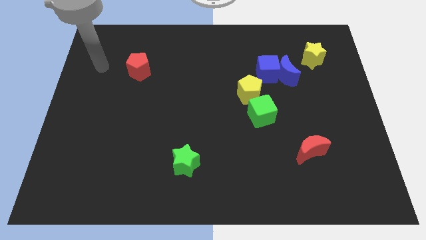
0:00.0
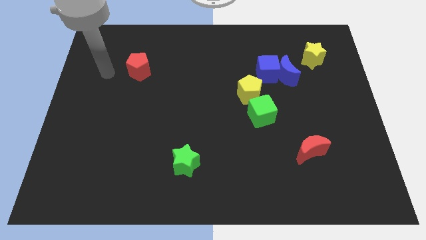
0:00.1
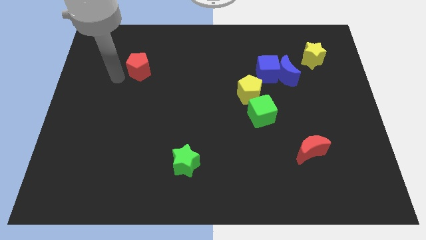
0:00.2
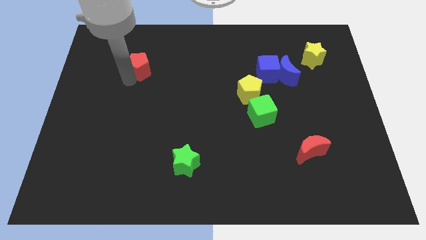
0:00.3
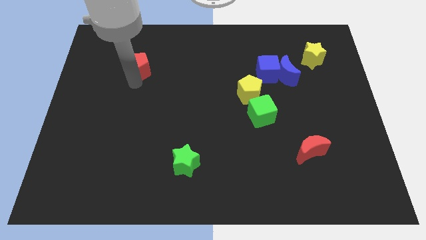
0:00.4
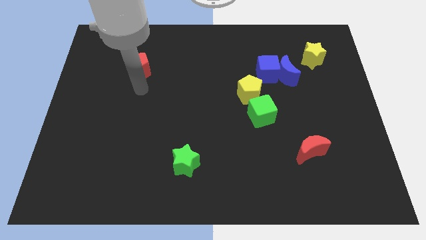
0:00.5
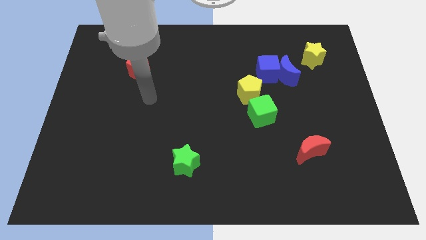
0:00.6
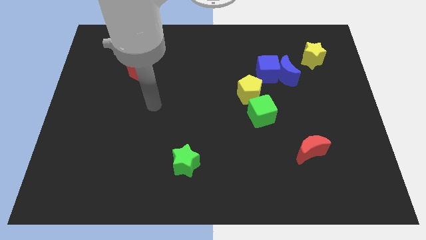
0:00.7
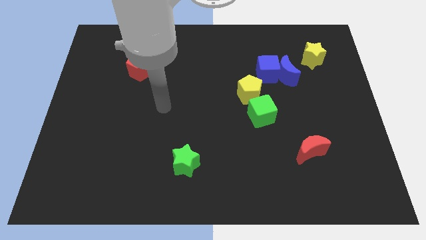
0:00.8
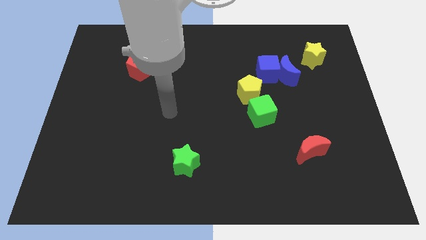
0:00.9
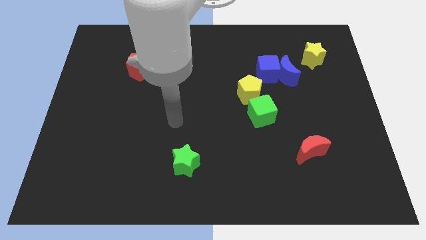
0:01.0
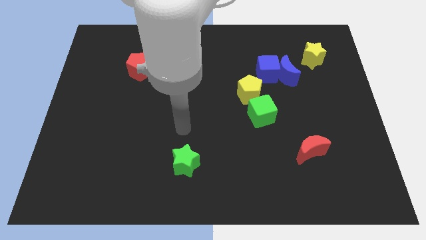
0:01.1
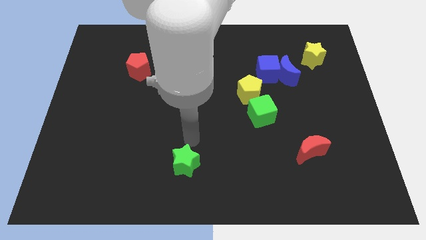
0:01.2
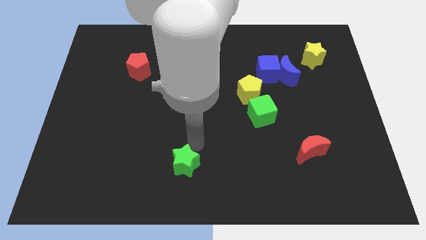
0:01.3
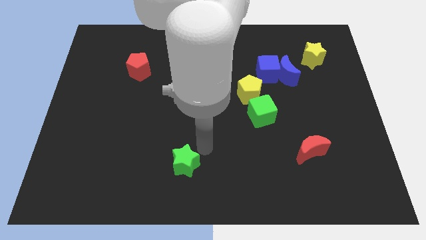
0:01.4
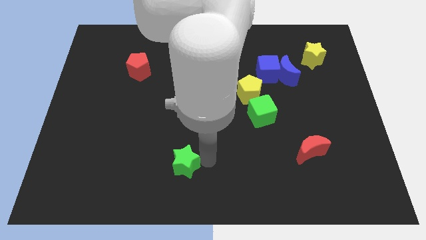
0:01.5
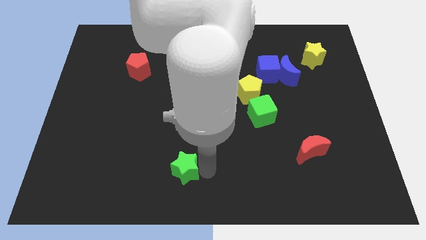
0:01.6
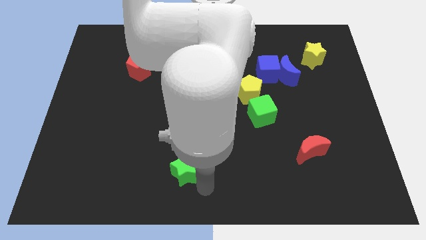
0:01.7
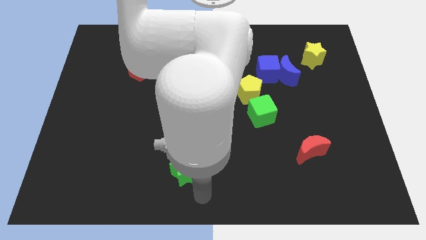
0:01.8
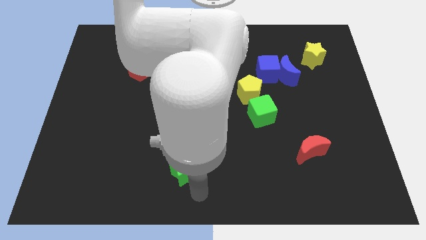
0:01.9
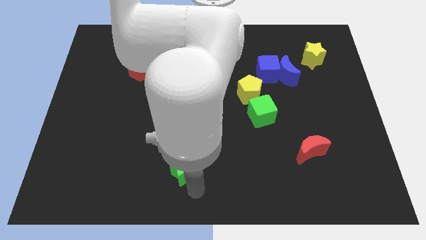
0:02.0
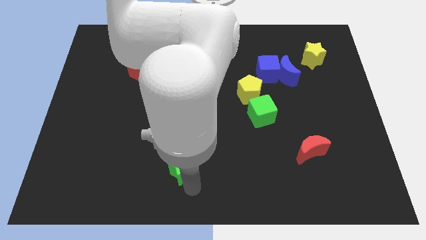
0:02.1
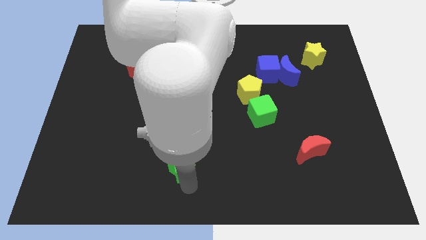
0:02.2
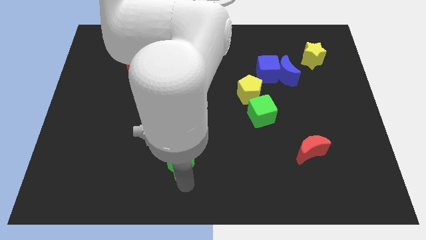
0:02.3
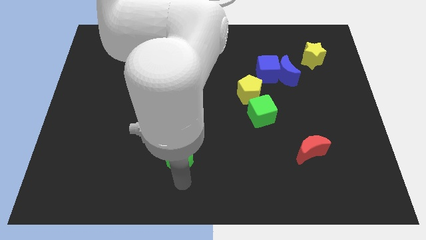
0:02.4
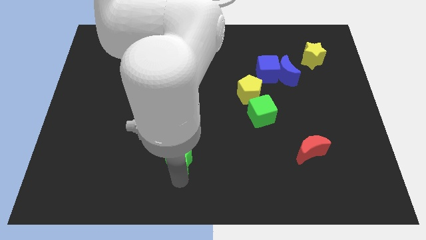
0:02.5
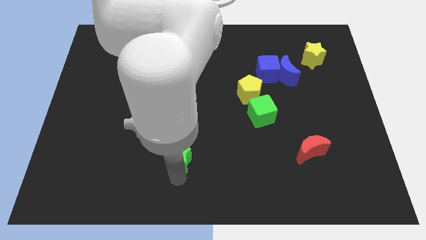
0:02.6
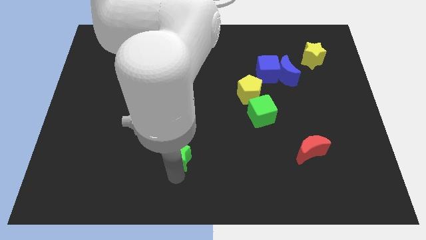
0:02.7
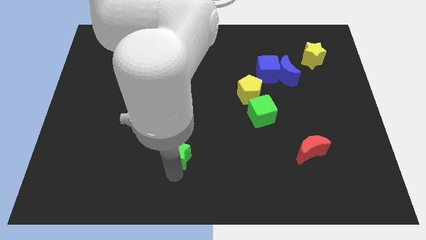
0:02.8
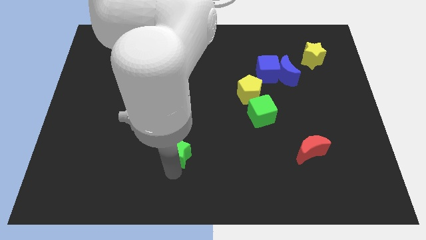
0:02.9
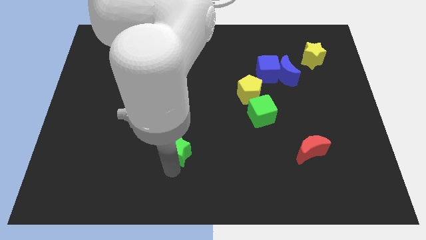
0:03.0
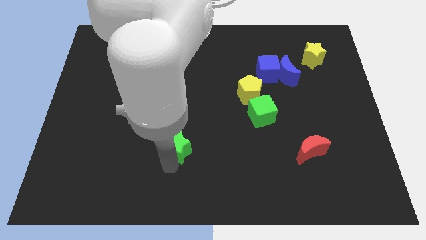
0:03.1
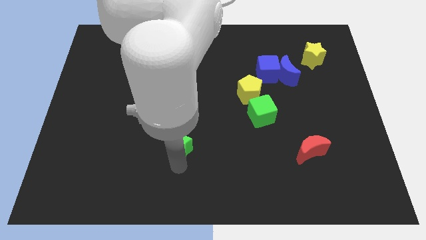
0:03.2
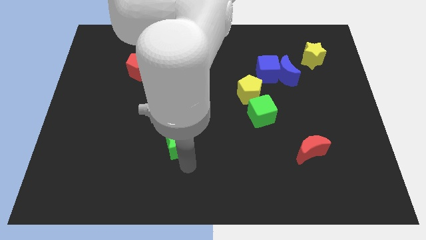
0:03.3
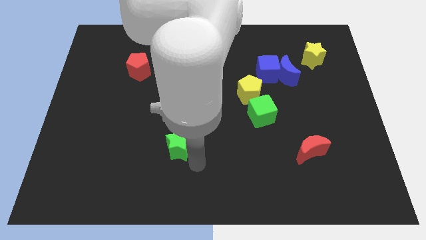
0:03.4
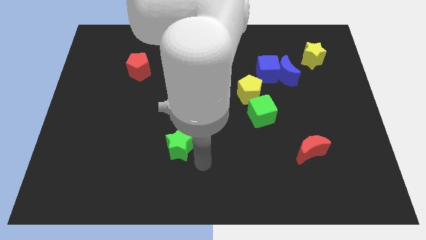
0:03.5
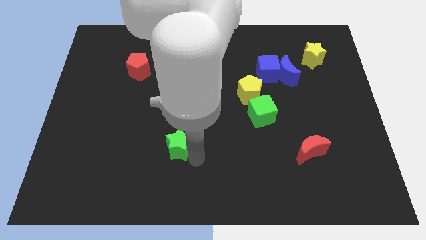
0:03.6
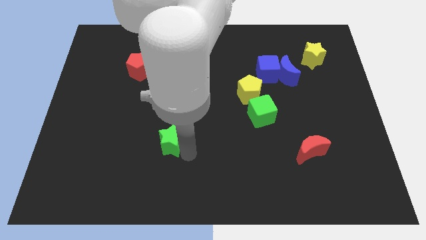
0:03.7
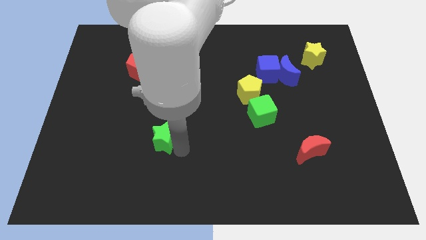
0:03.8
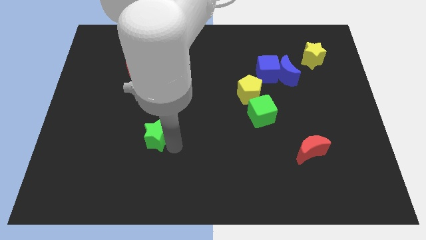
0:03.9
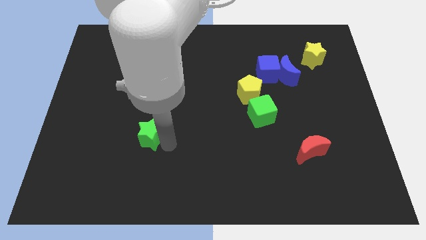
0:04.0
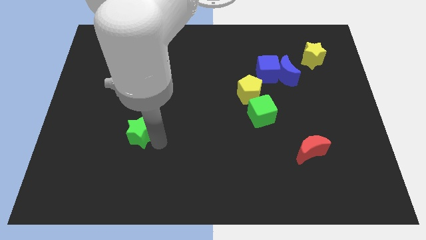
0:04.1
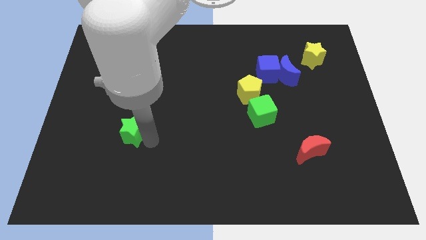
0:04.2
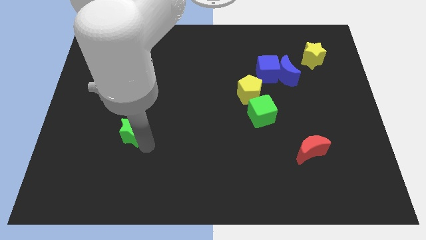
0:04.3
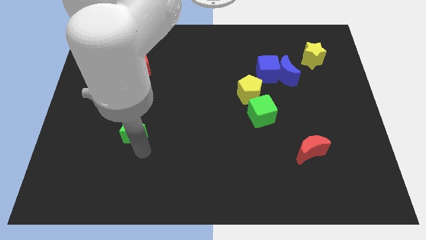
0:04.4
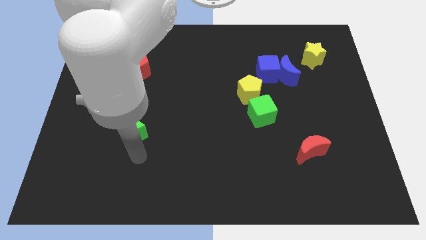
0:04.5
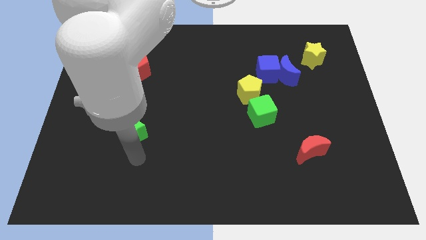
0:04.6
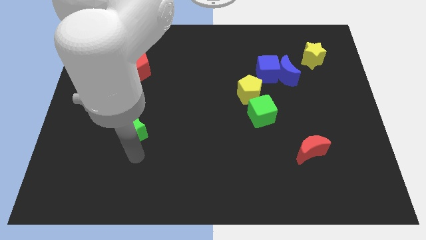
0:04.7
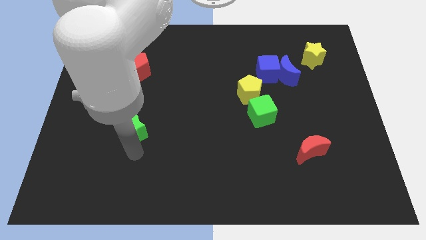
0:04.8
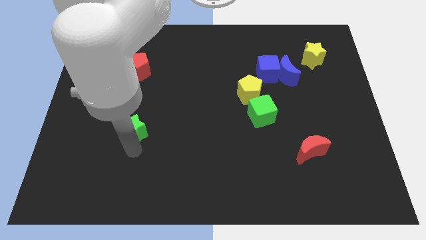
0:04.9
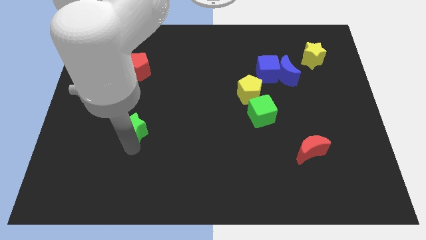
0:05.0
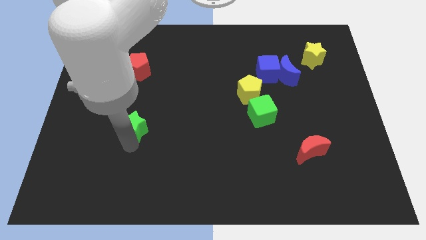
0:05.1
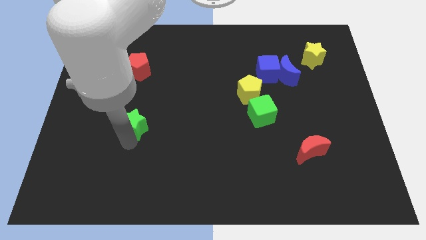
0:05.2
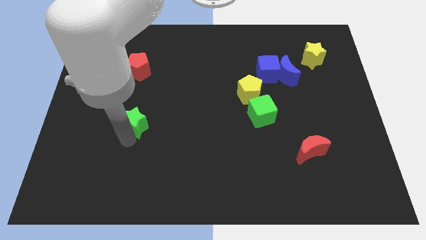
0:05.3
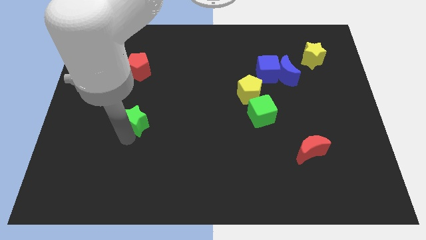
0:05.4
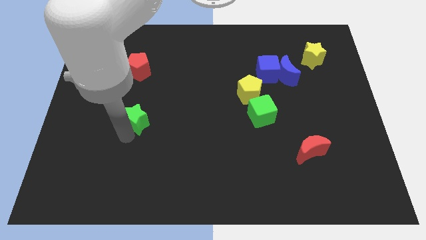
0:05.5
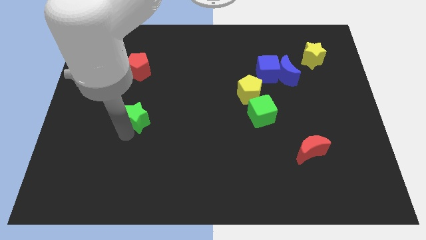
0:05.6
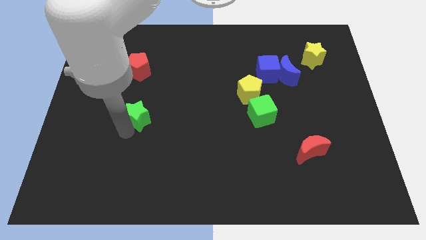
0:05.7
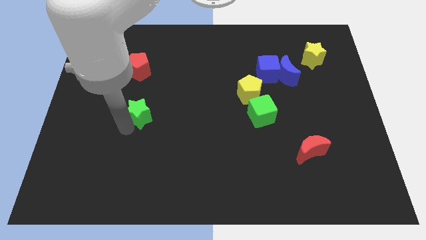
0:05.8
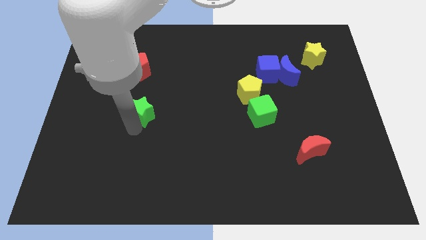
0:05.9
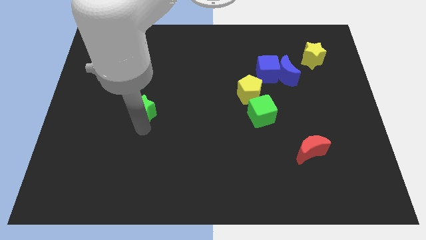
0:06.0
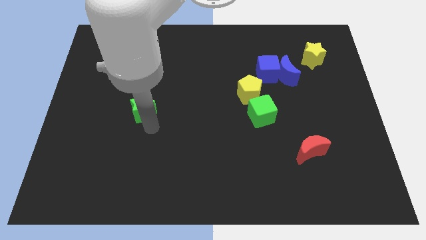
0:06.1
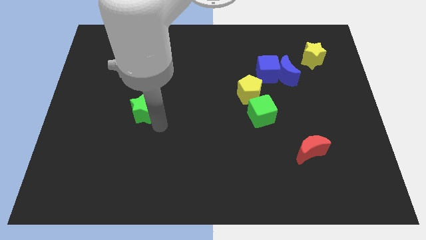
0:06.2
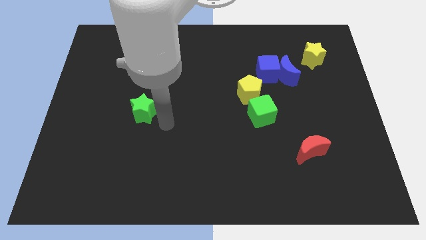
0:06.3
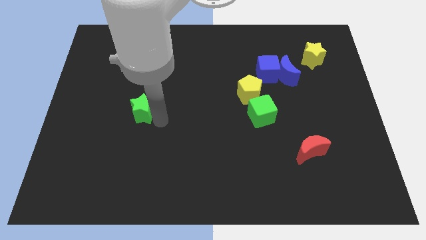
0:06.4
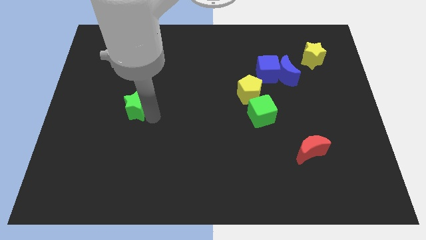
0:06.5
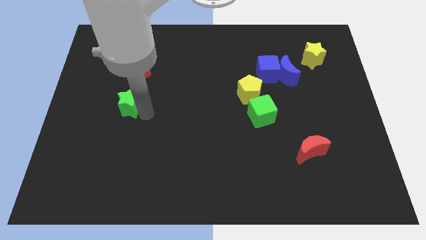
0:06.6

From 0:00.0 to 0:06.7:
slide the green star up and left diagonally

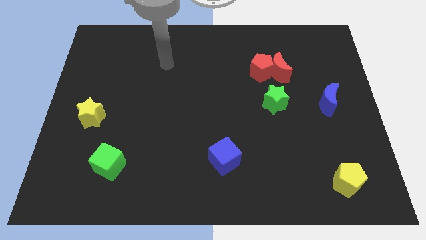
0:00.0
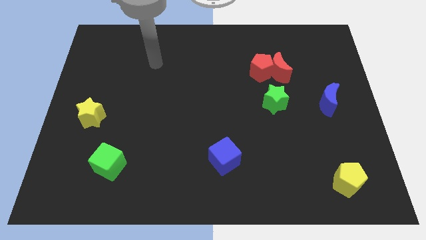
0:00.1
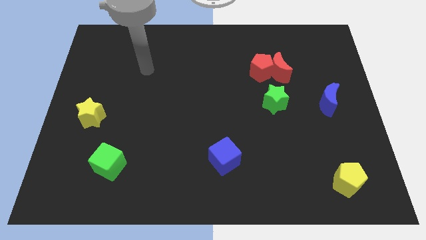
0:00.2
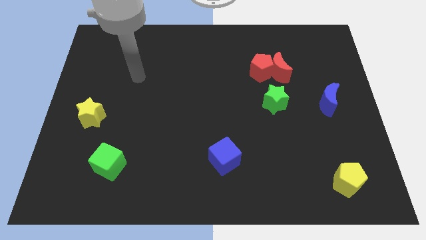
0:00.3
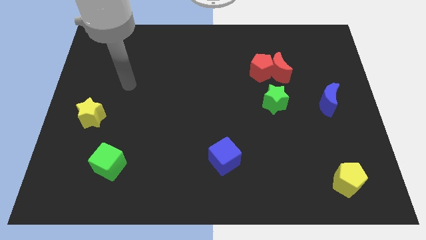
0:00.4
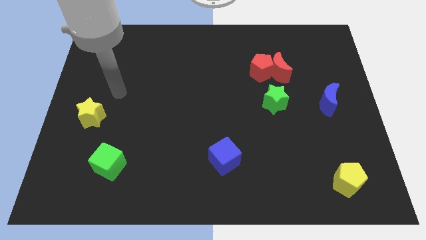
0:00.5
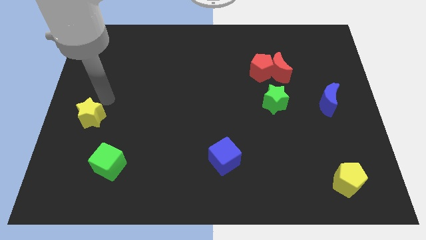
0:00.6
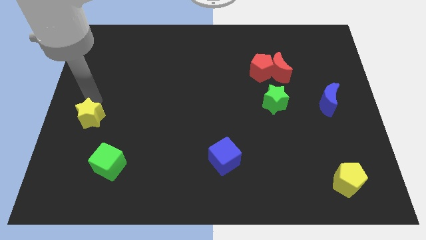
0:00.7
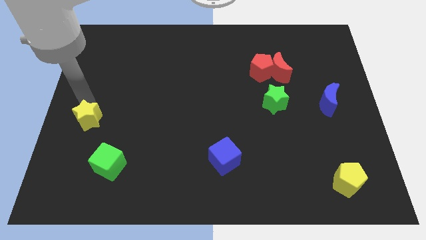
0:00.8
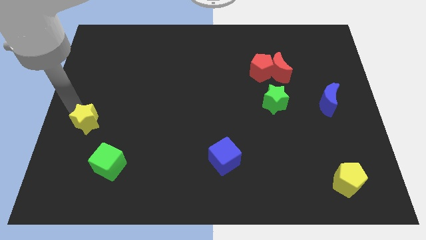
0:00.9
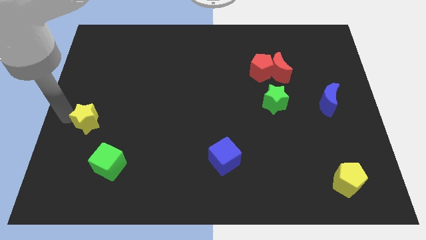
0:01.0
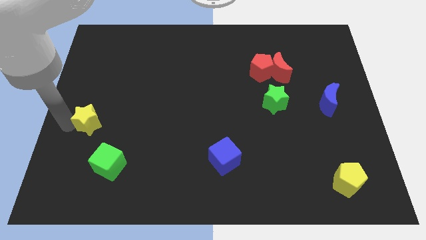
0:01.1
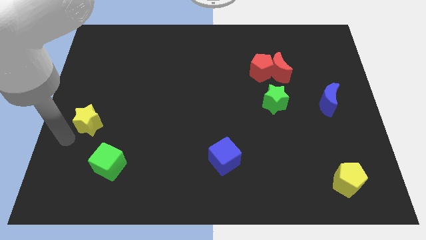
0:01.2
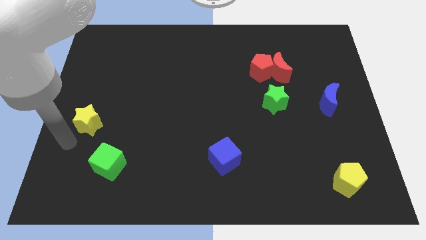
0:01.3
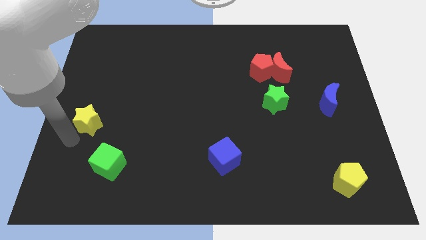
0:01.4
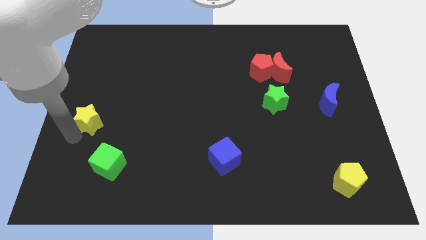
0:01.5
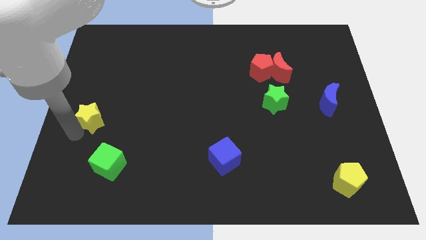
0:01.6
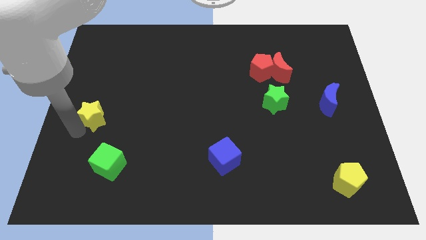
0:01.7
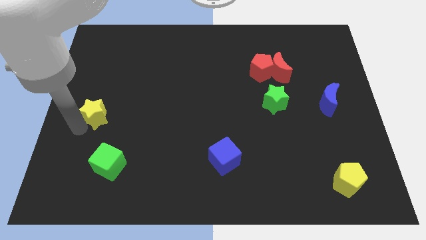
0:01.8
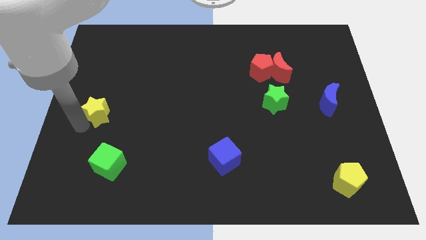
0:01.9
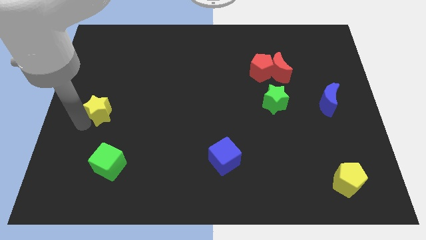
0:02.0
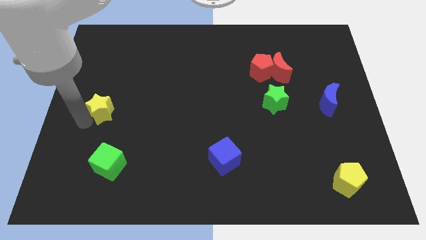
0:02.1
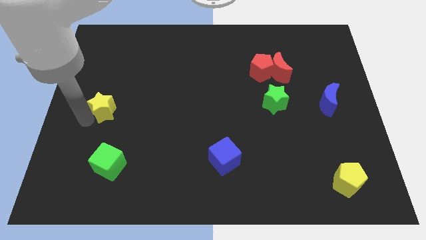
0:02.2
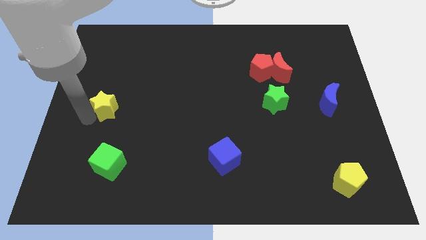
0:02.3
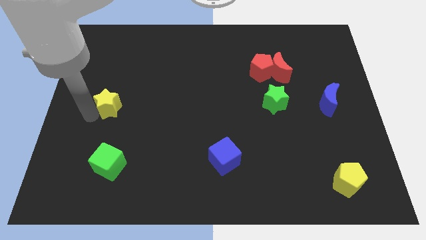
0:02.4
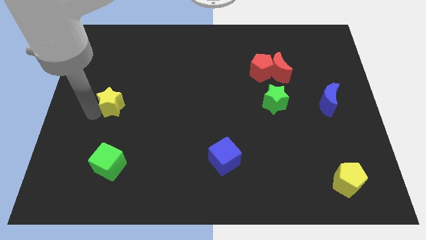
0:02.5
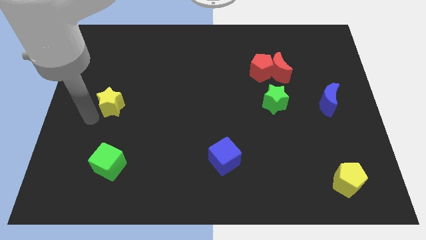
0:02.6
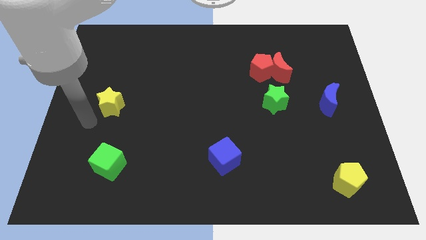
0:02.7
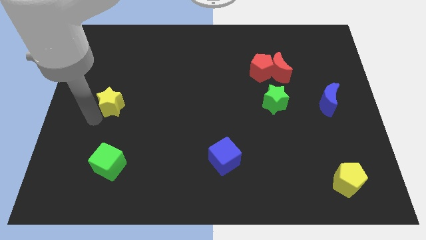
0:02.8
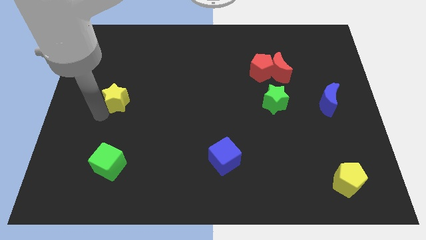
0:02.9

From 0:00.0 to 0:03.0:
slightly slide the yellow star upwards and right diagonally
